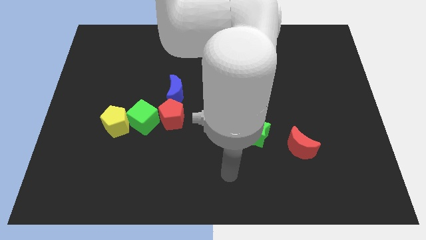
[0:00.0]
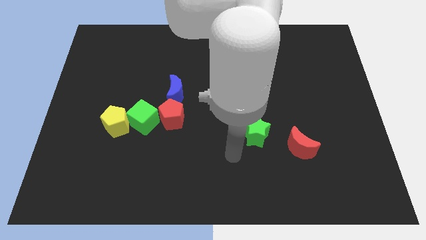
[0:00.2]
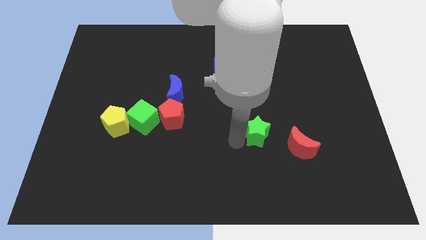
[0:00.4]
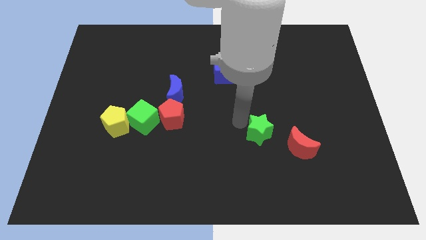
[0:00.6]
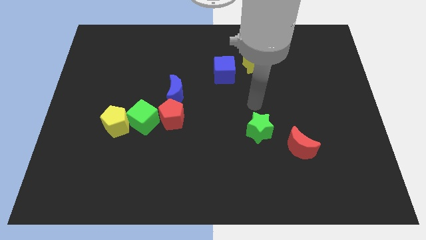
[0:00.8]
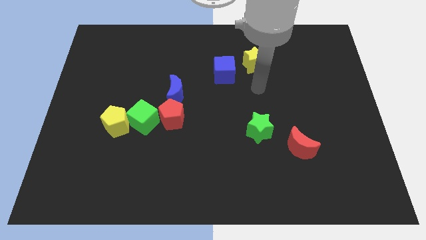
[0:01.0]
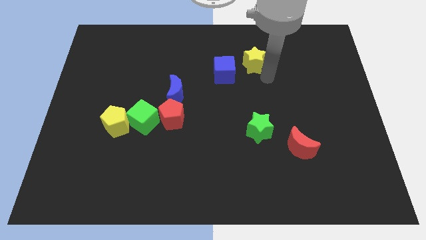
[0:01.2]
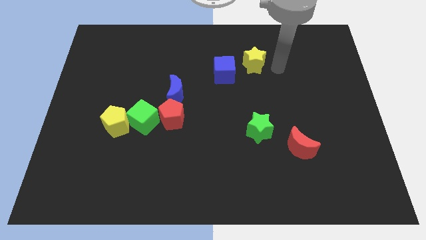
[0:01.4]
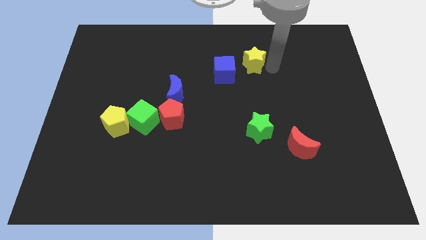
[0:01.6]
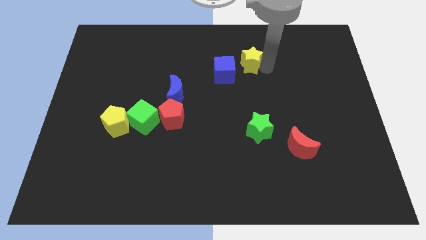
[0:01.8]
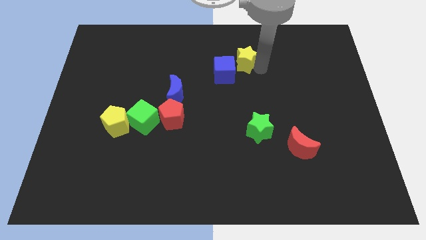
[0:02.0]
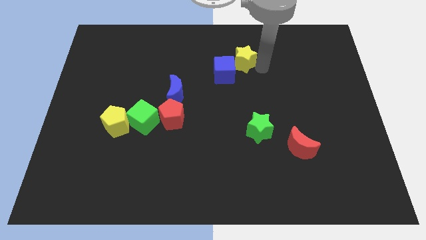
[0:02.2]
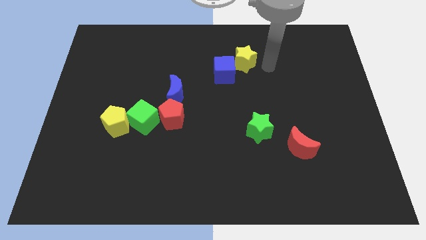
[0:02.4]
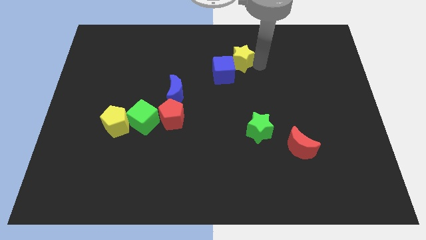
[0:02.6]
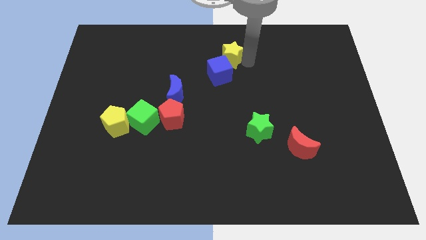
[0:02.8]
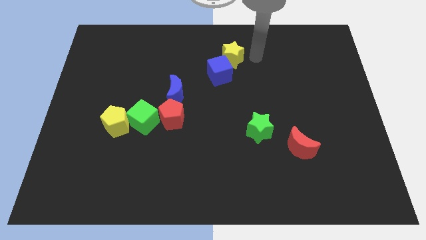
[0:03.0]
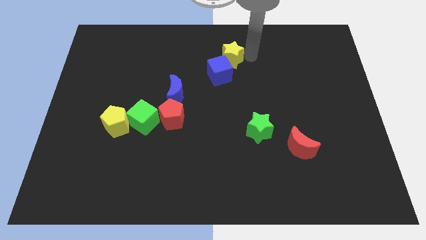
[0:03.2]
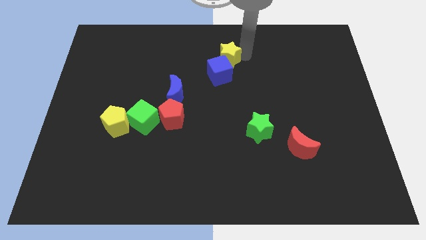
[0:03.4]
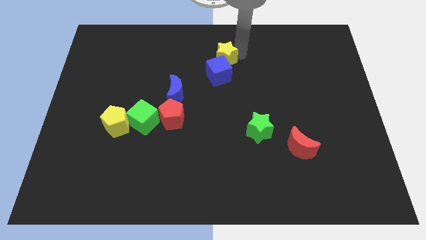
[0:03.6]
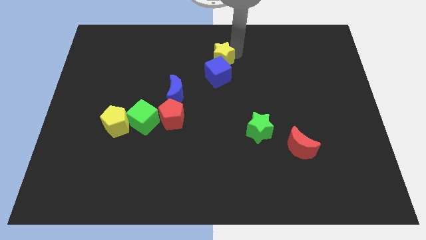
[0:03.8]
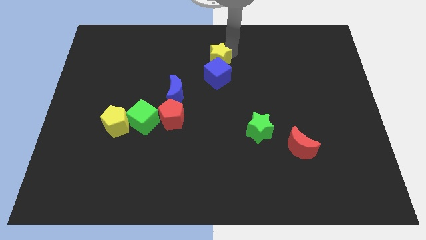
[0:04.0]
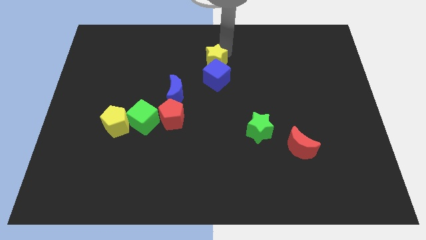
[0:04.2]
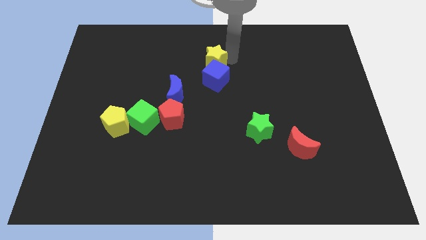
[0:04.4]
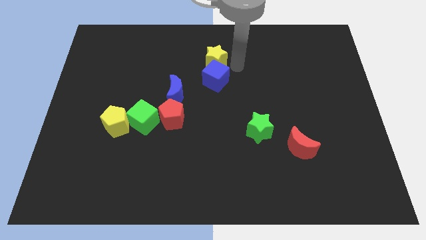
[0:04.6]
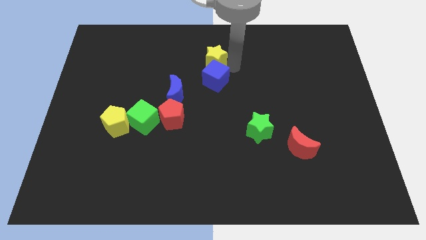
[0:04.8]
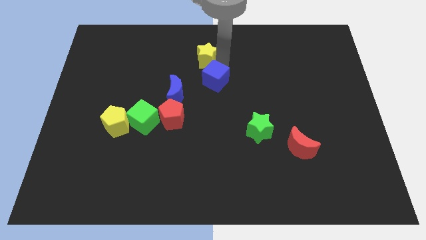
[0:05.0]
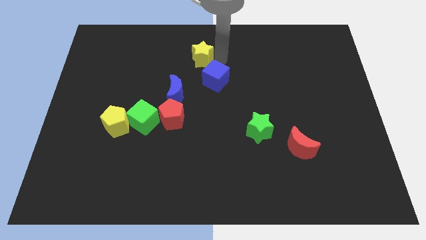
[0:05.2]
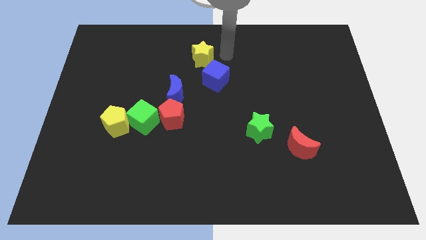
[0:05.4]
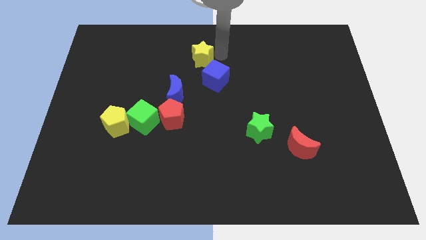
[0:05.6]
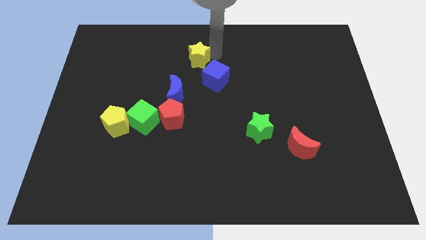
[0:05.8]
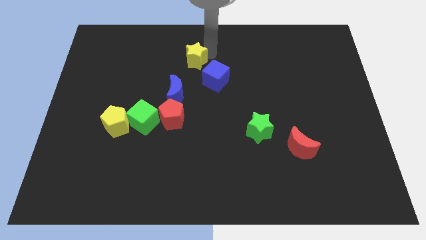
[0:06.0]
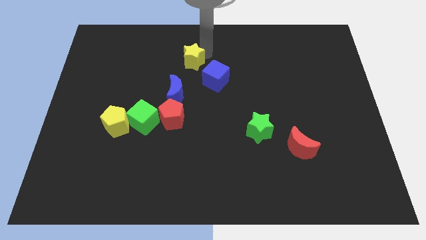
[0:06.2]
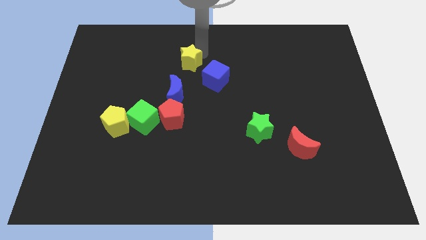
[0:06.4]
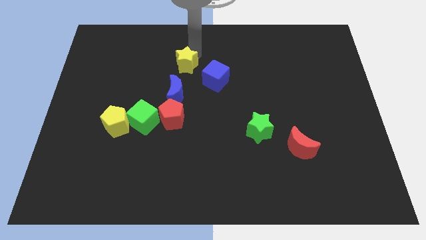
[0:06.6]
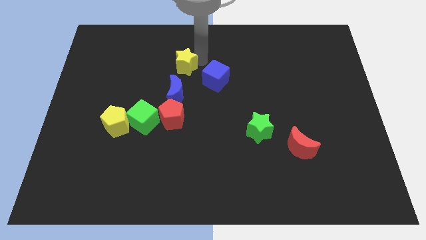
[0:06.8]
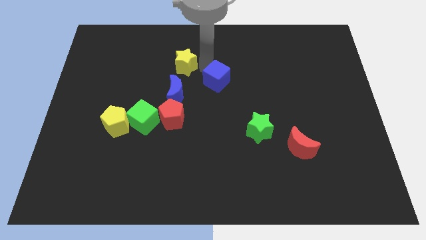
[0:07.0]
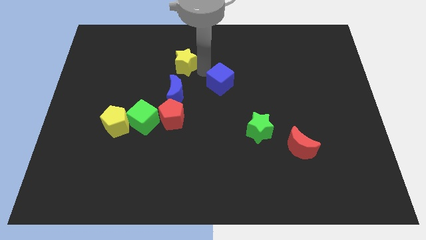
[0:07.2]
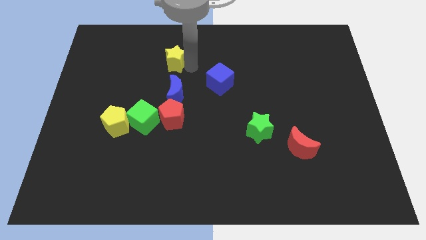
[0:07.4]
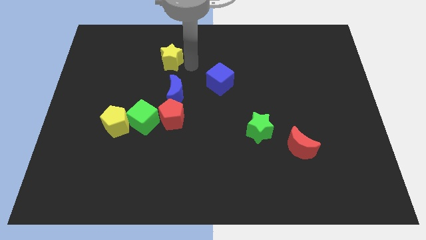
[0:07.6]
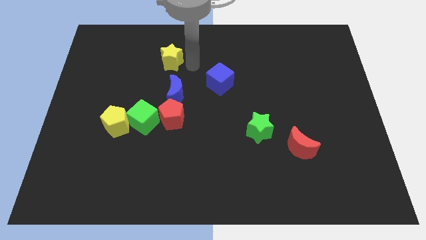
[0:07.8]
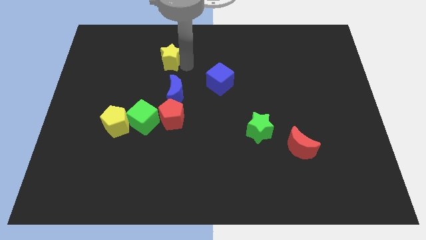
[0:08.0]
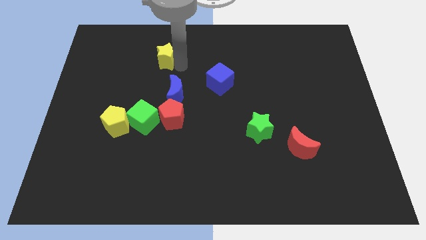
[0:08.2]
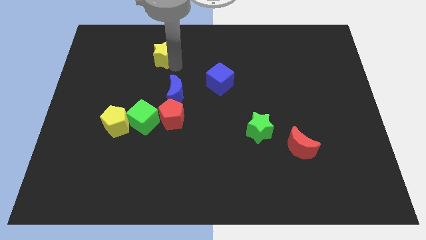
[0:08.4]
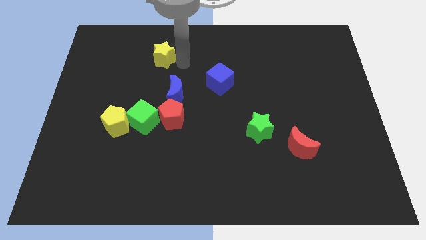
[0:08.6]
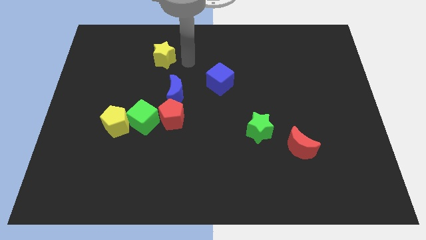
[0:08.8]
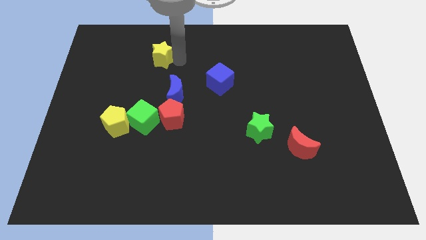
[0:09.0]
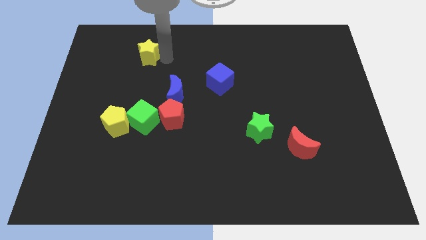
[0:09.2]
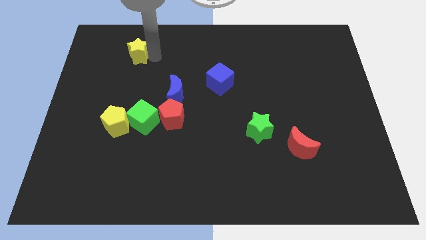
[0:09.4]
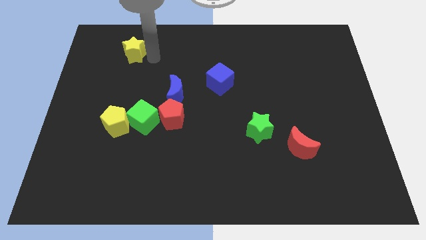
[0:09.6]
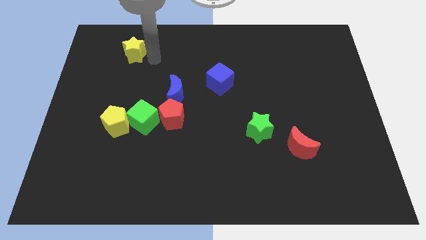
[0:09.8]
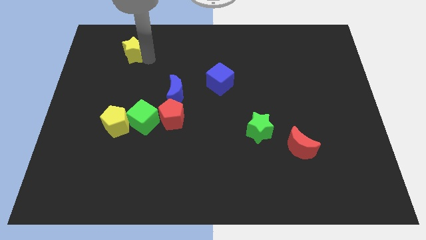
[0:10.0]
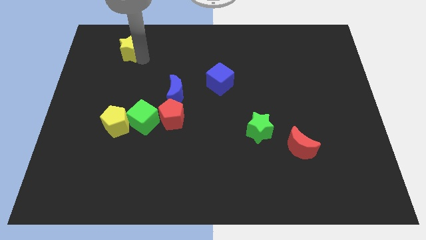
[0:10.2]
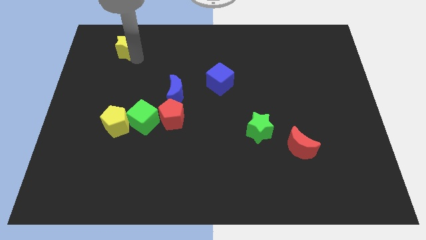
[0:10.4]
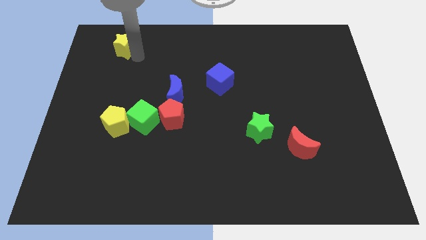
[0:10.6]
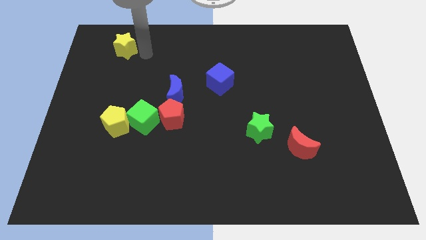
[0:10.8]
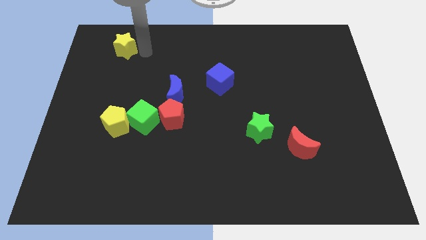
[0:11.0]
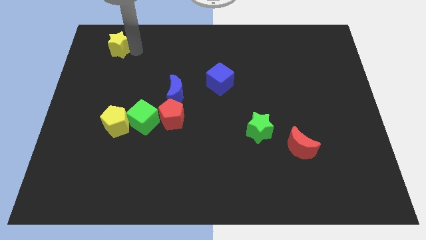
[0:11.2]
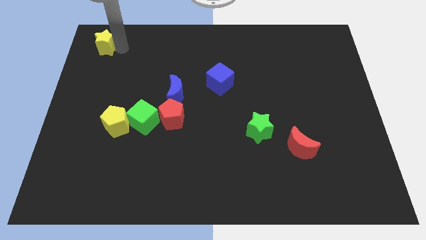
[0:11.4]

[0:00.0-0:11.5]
slide the yellow star to the top left

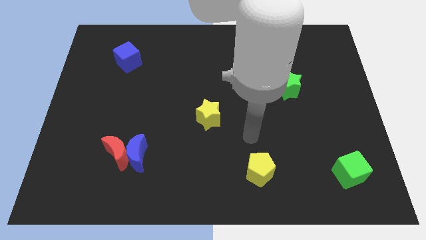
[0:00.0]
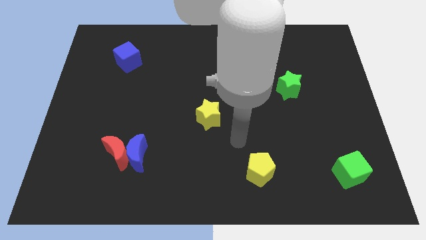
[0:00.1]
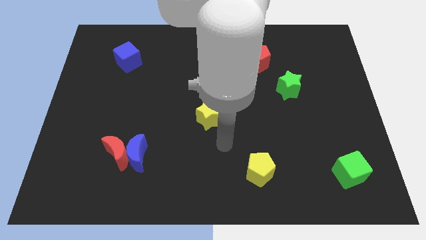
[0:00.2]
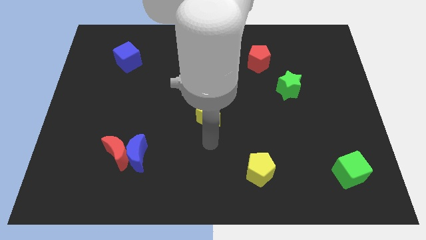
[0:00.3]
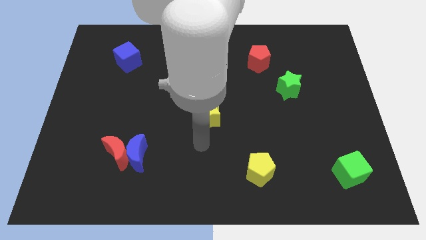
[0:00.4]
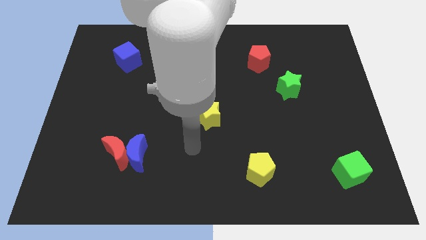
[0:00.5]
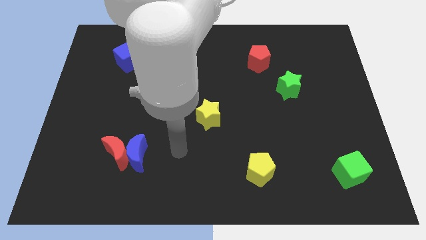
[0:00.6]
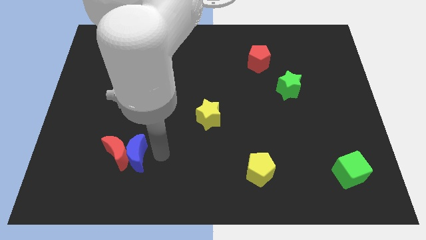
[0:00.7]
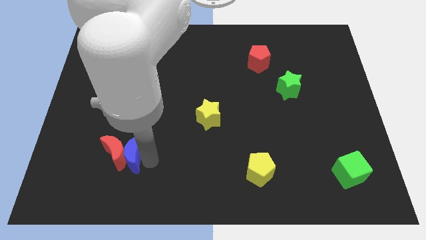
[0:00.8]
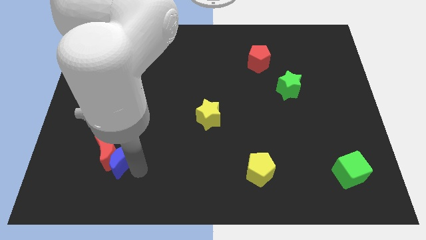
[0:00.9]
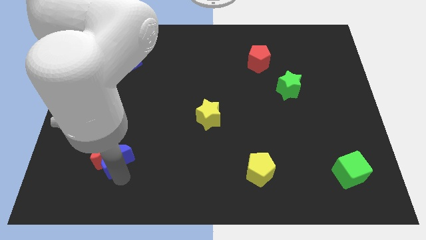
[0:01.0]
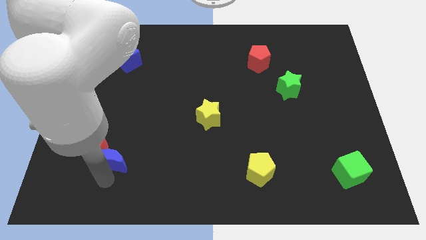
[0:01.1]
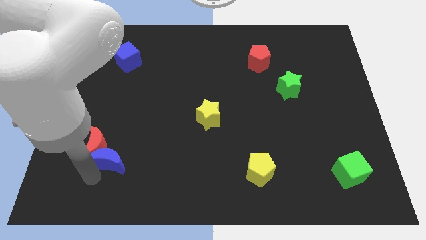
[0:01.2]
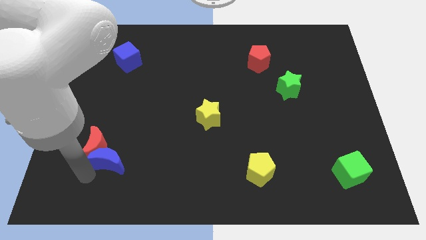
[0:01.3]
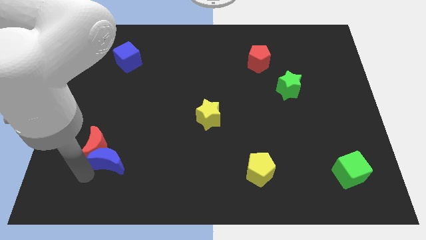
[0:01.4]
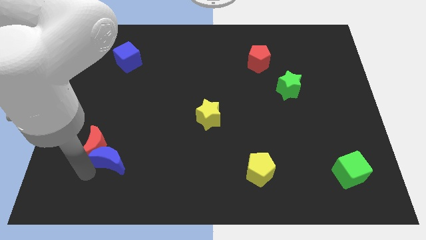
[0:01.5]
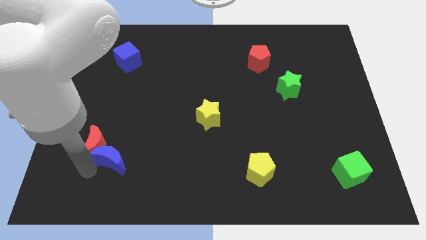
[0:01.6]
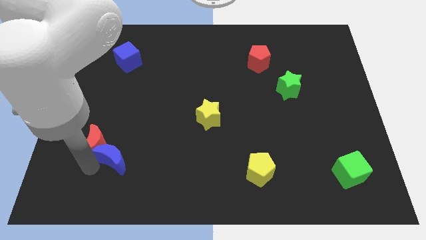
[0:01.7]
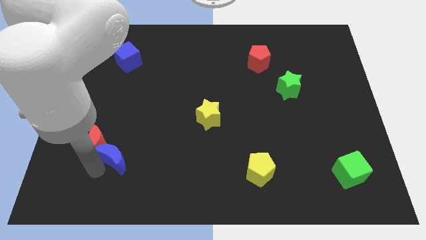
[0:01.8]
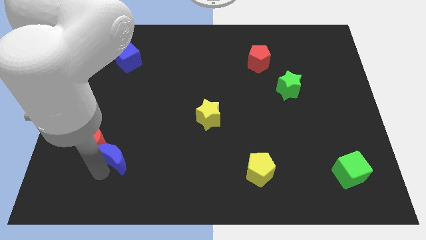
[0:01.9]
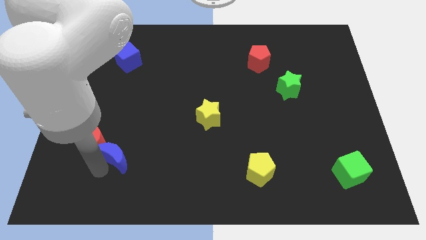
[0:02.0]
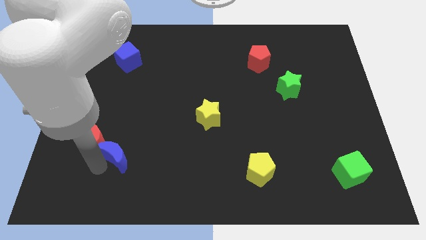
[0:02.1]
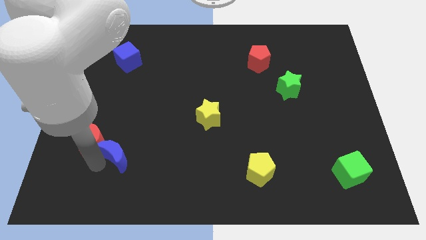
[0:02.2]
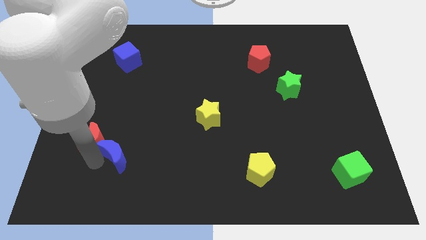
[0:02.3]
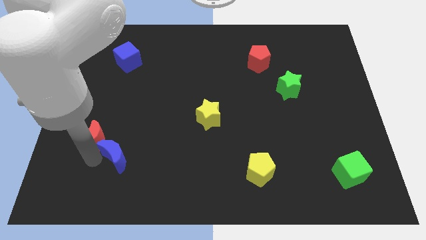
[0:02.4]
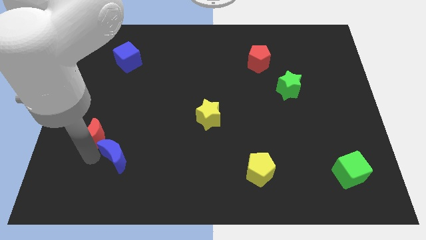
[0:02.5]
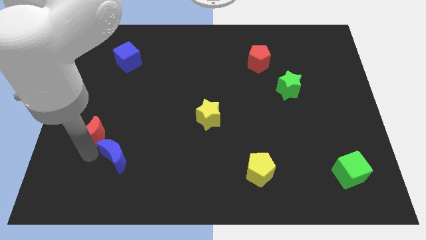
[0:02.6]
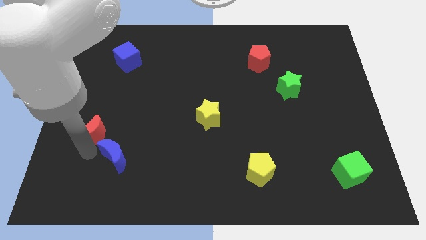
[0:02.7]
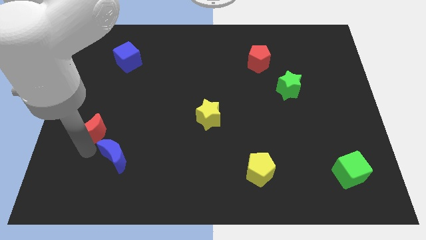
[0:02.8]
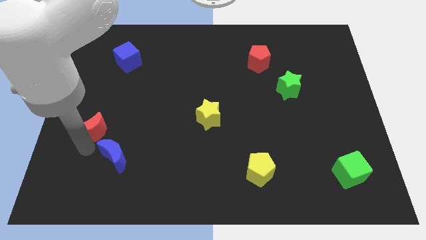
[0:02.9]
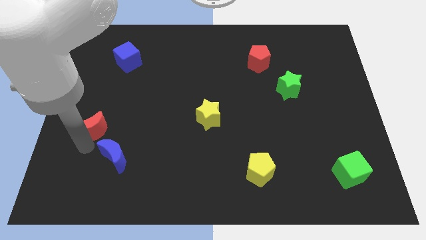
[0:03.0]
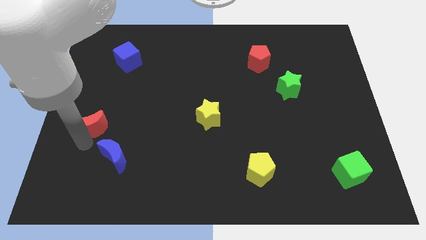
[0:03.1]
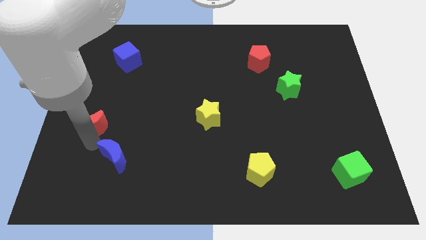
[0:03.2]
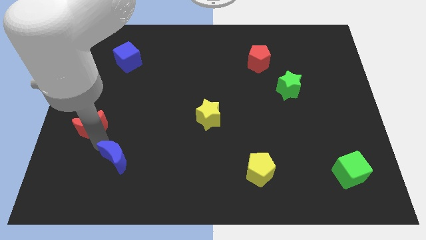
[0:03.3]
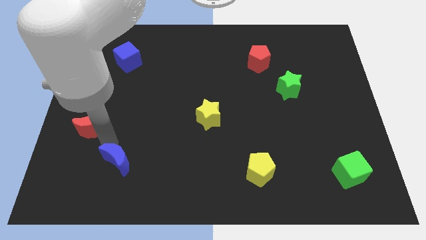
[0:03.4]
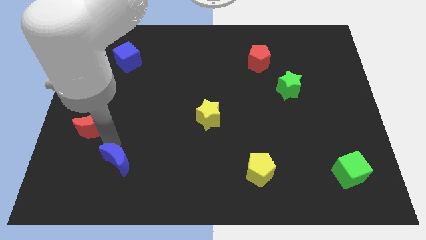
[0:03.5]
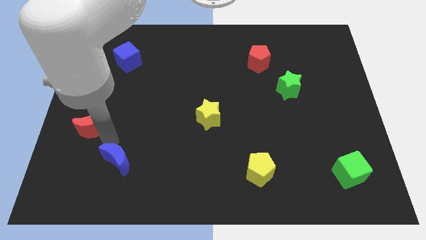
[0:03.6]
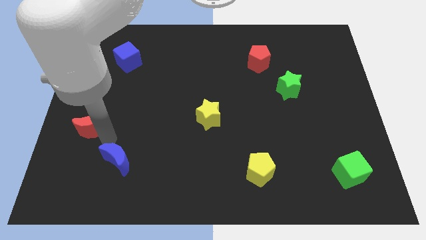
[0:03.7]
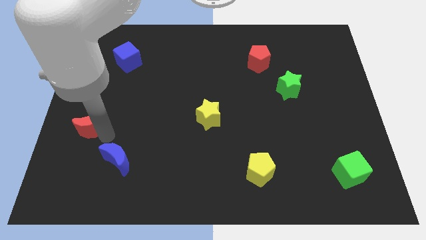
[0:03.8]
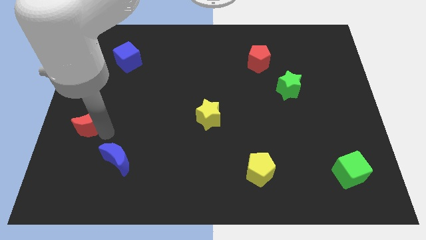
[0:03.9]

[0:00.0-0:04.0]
slide the red moon to the center left
